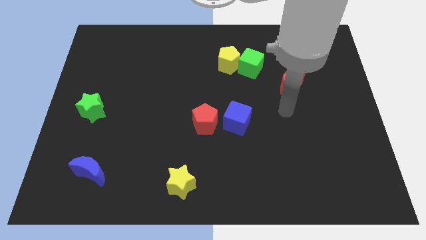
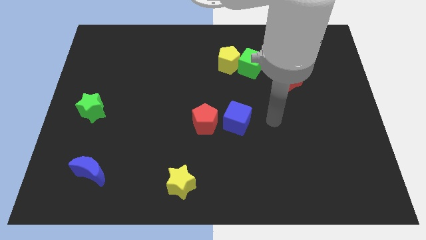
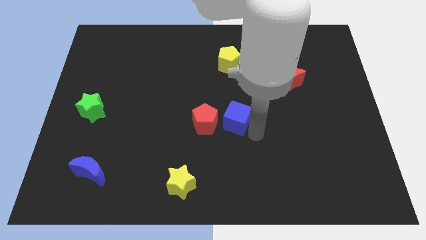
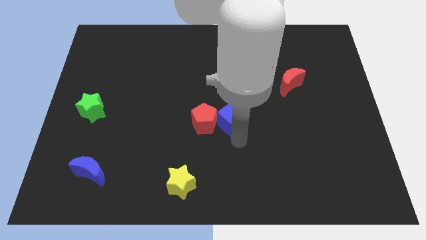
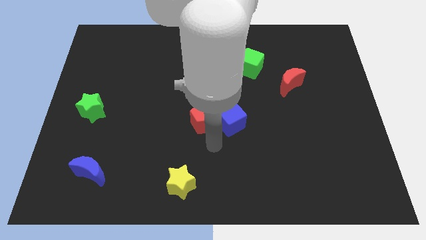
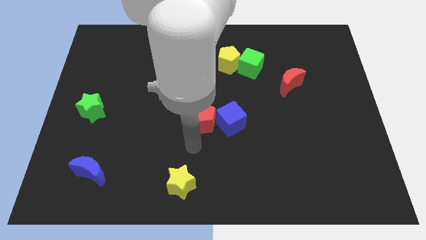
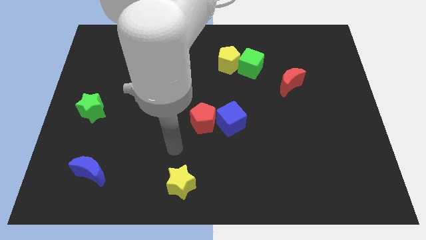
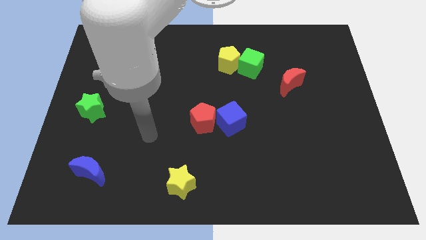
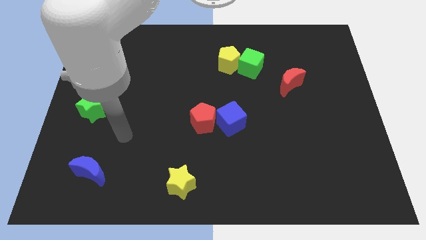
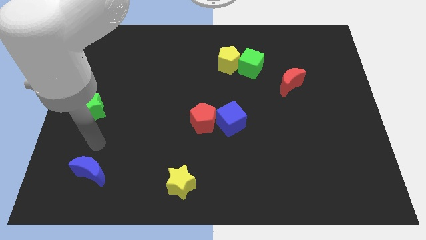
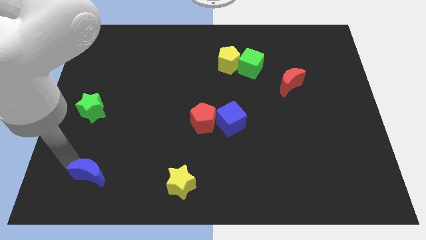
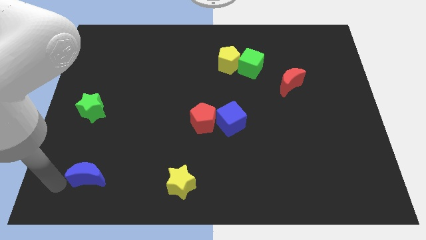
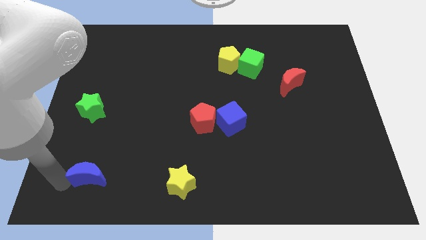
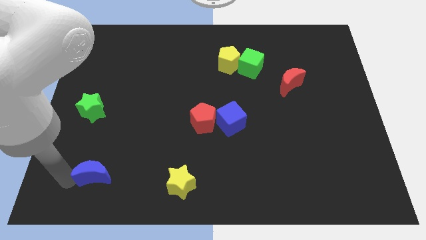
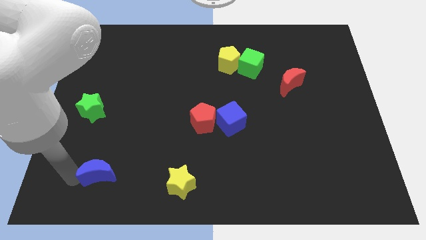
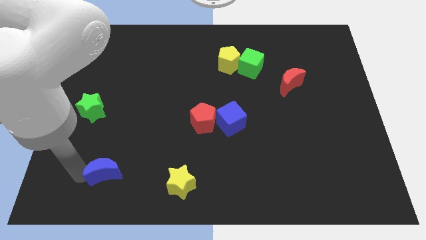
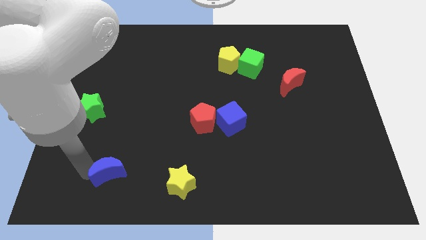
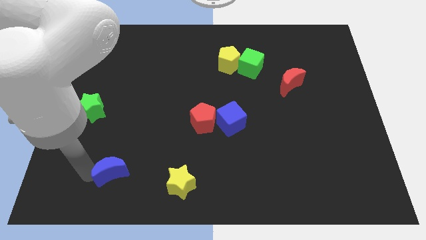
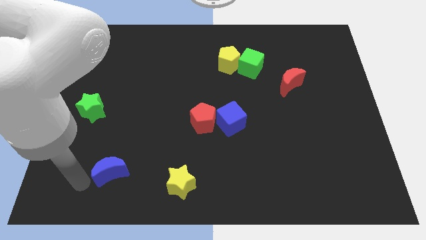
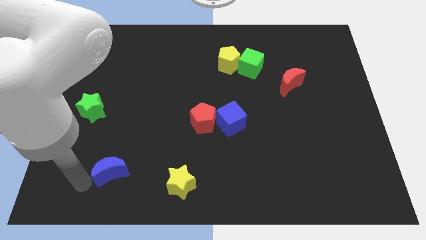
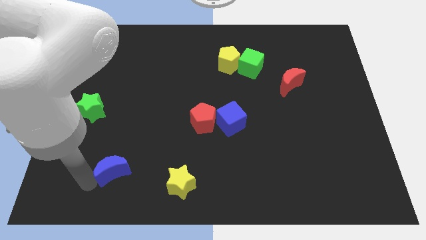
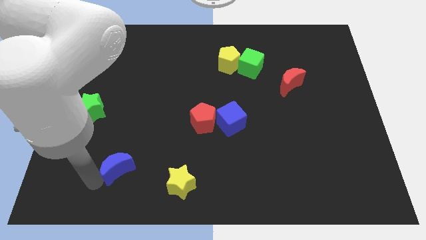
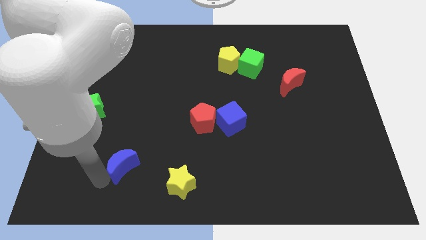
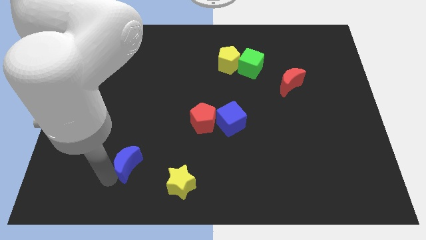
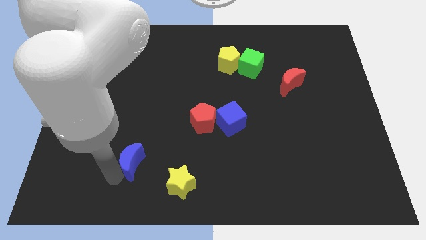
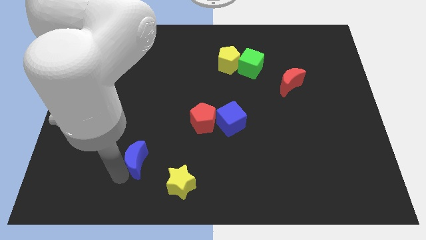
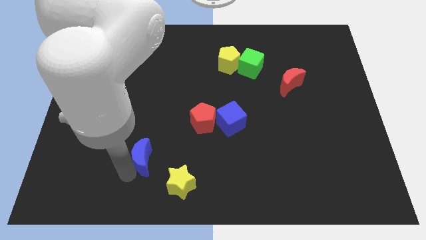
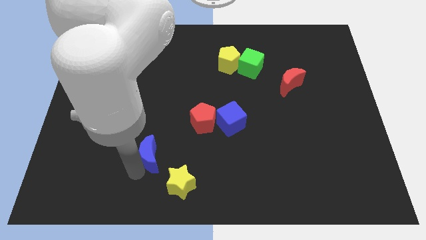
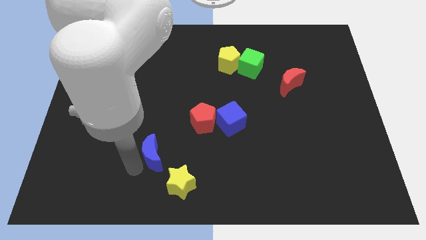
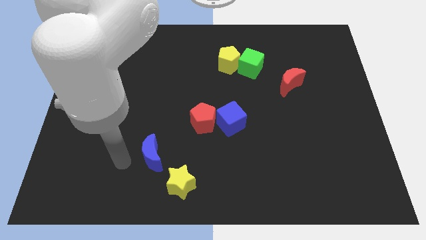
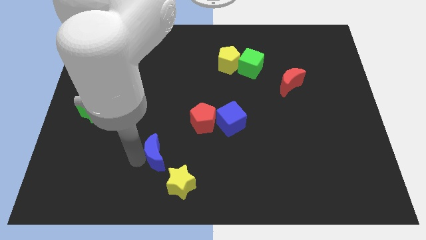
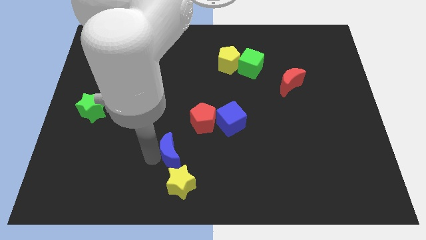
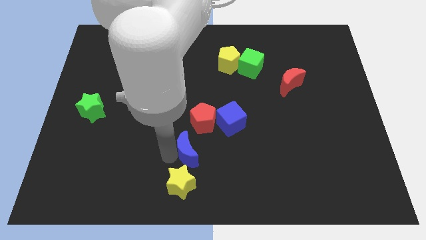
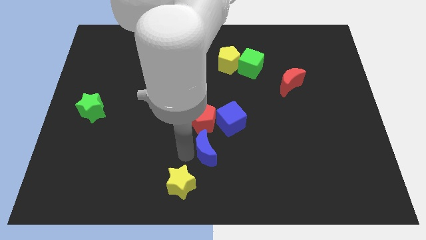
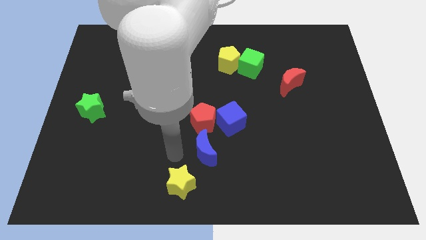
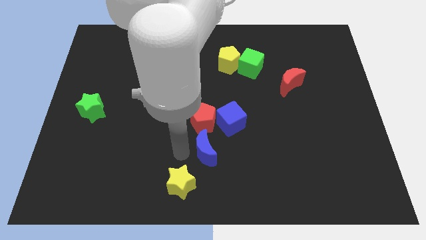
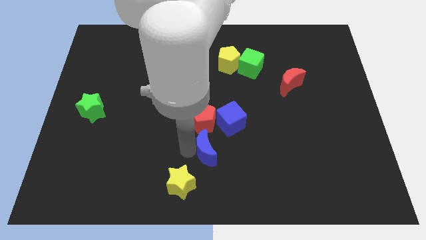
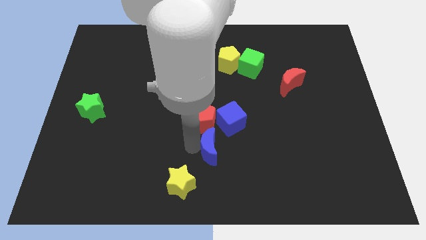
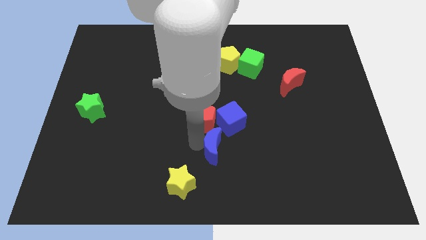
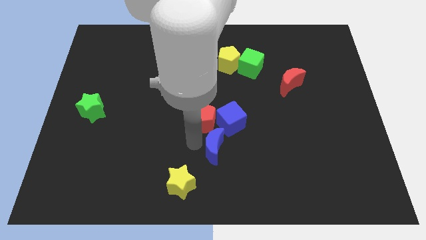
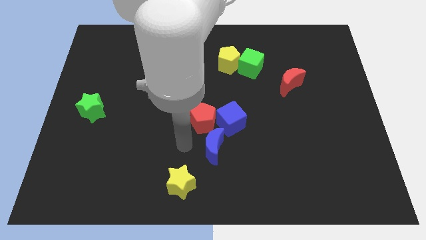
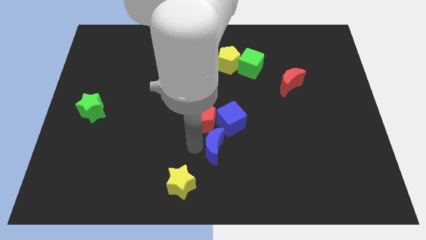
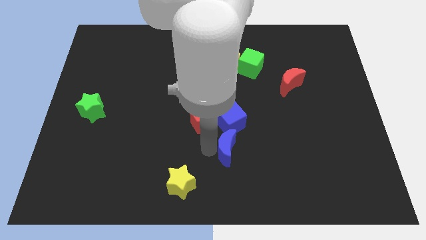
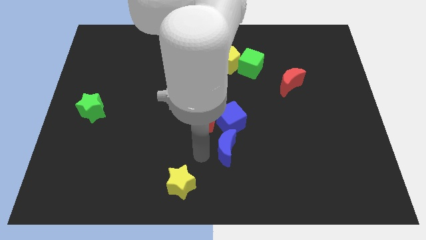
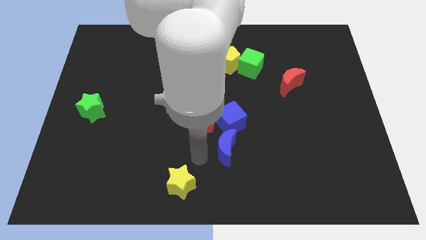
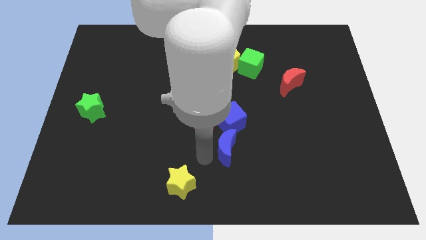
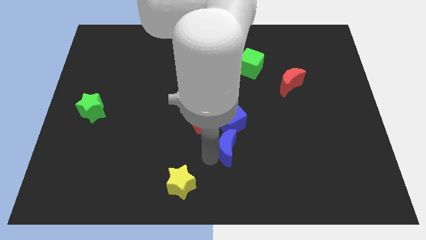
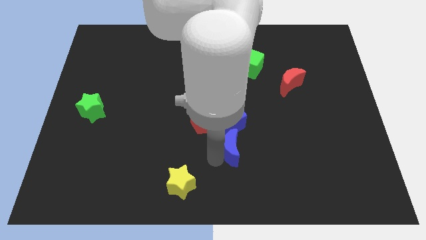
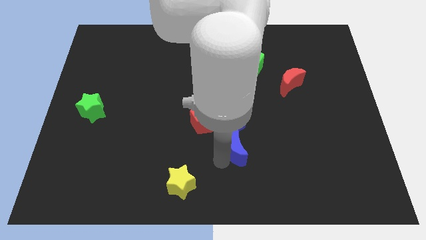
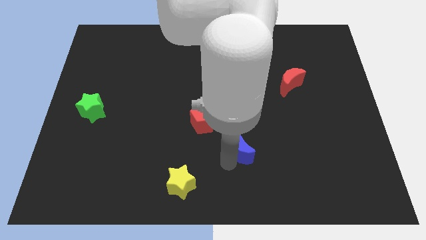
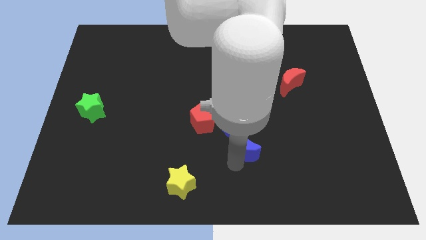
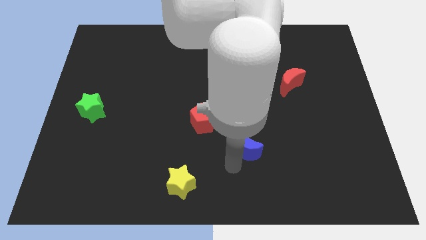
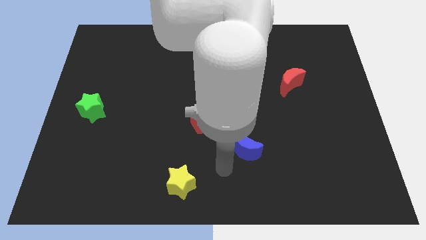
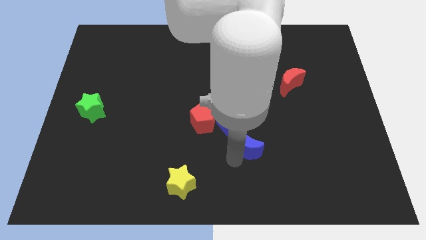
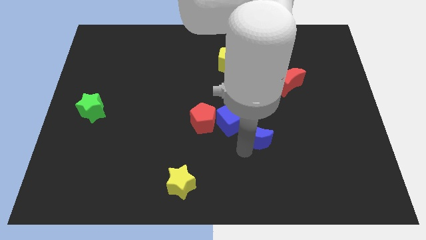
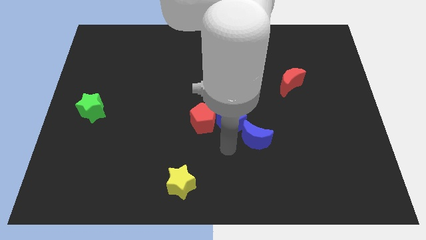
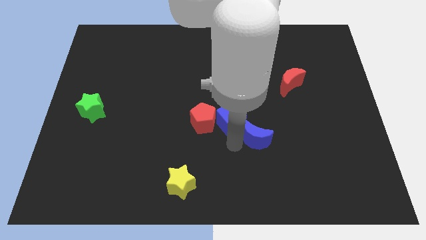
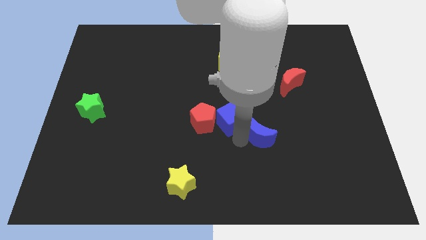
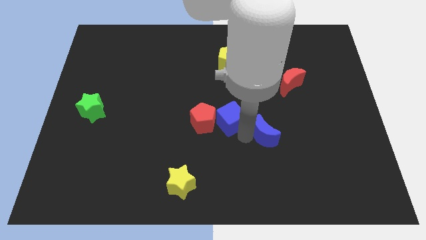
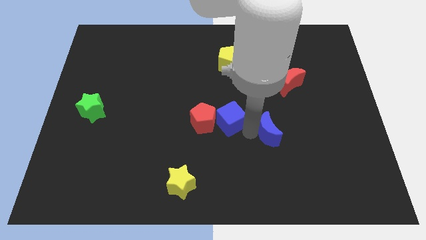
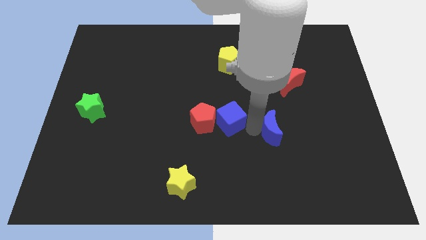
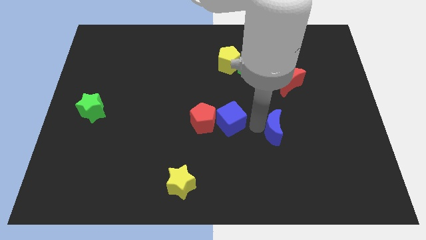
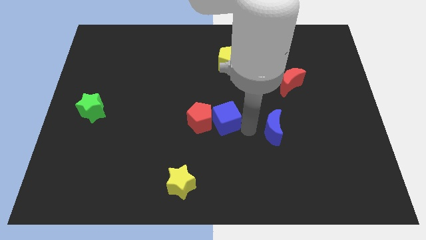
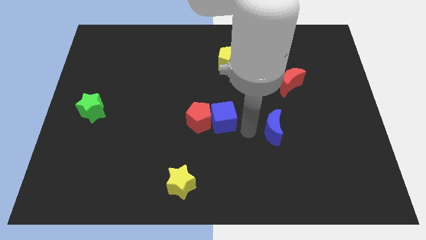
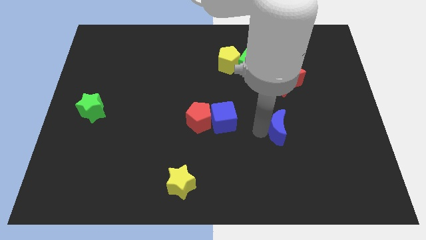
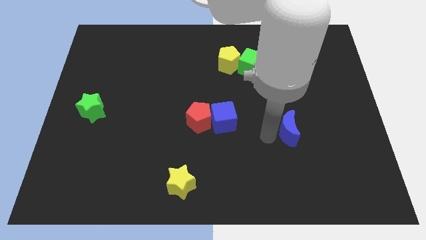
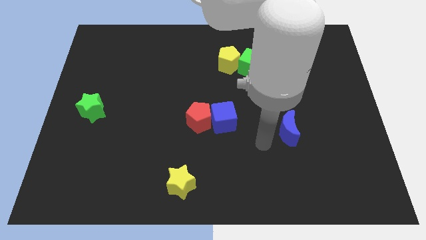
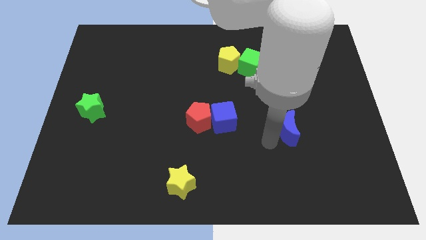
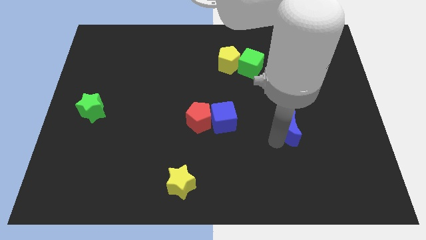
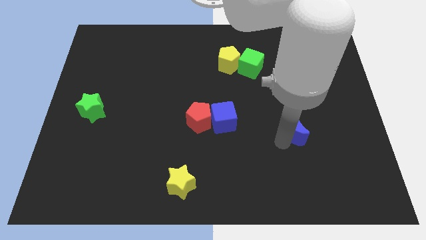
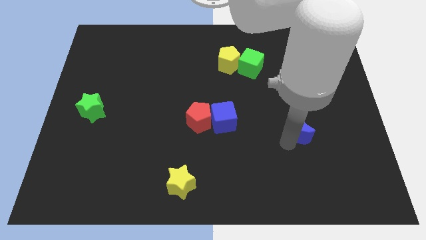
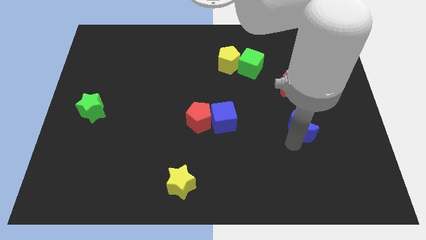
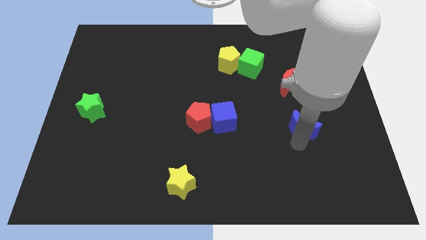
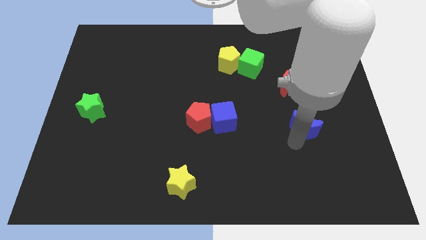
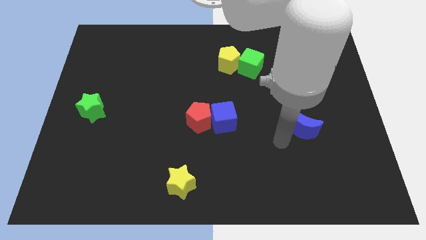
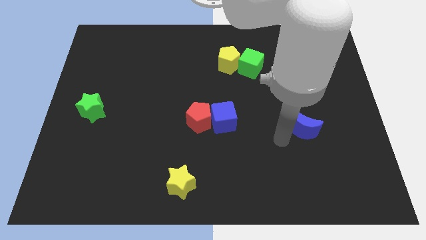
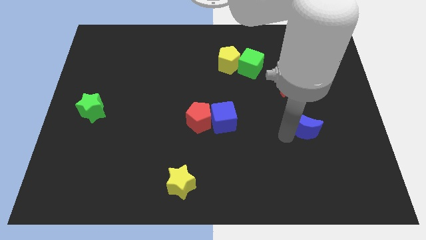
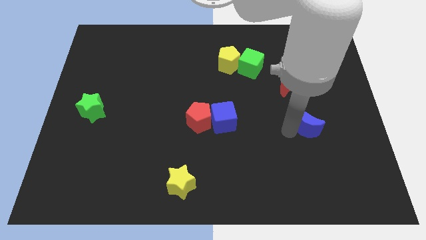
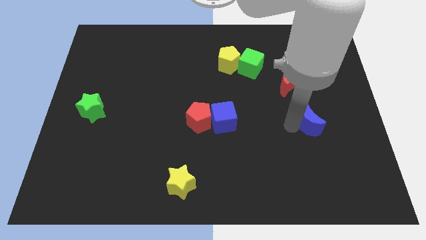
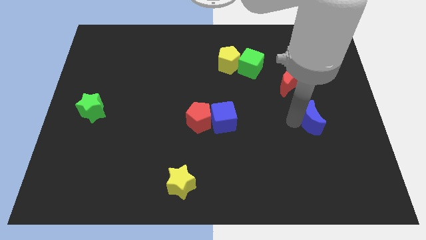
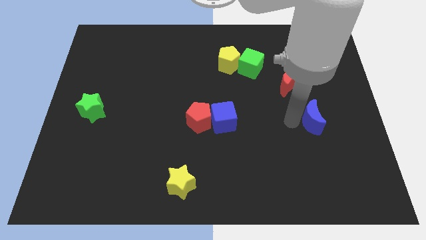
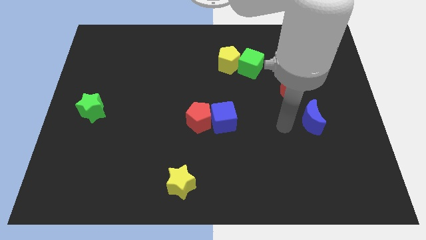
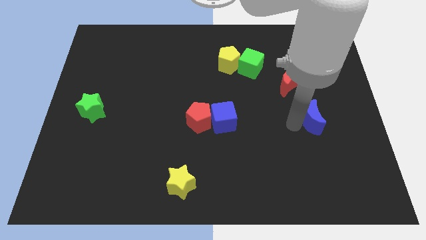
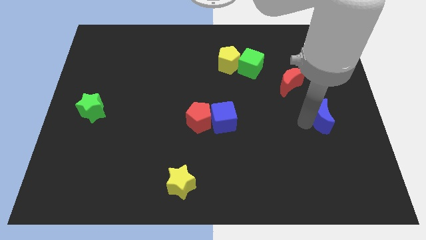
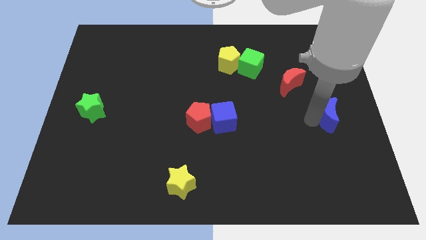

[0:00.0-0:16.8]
slide the blue moon to the right side of the board
